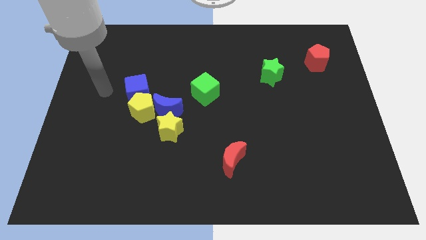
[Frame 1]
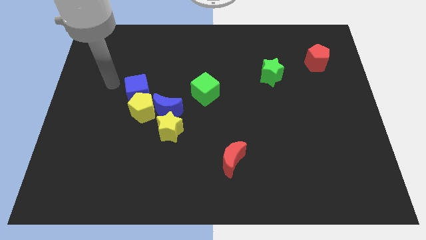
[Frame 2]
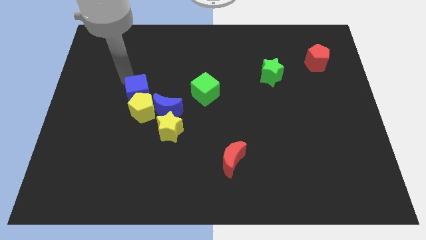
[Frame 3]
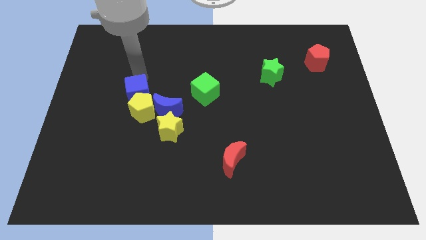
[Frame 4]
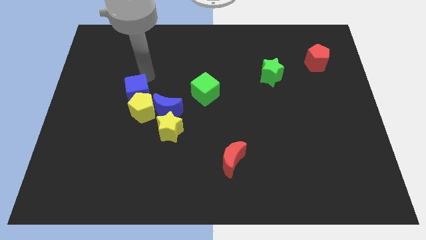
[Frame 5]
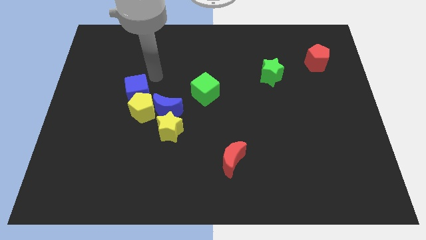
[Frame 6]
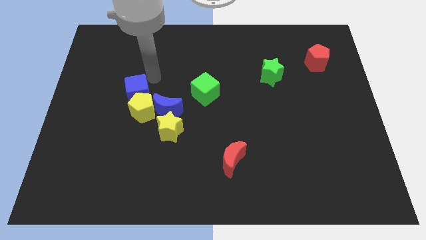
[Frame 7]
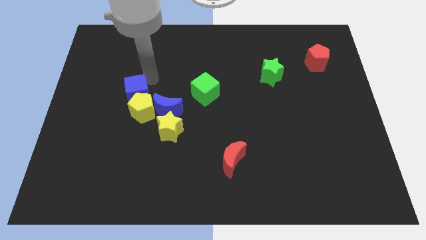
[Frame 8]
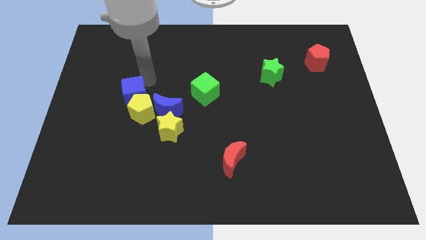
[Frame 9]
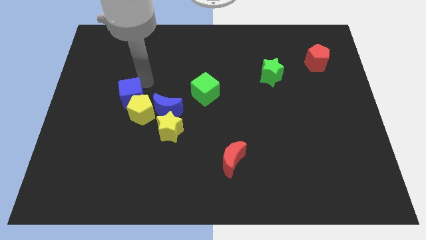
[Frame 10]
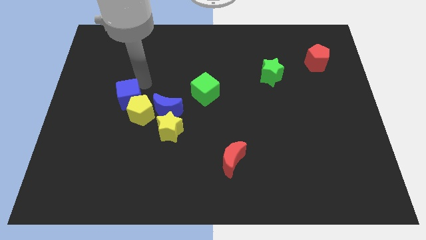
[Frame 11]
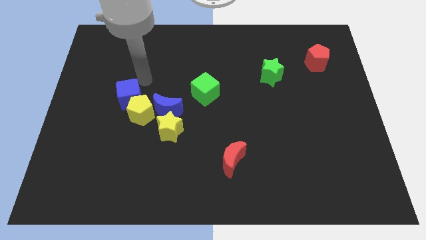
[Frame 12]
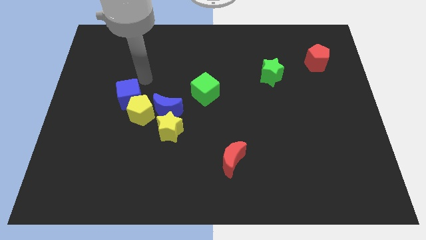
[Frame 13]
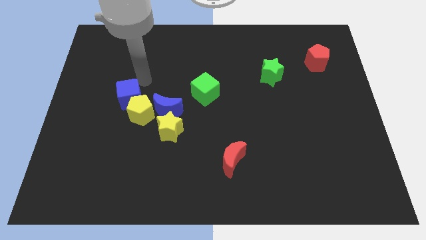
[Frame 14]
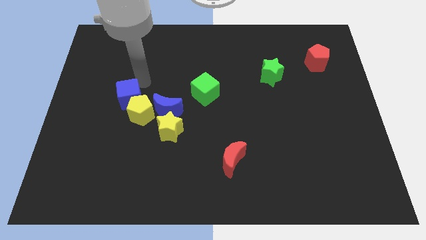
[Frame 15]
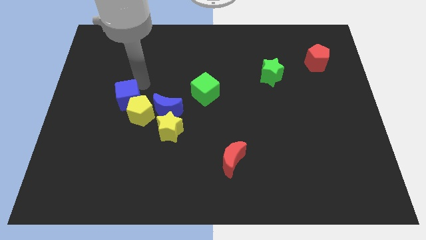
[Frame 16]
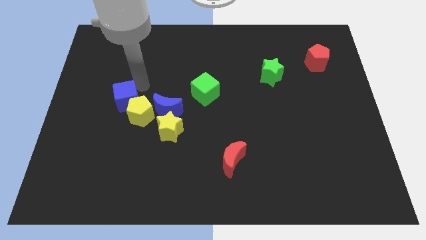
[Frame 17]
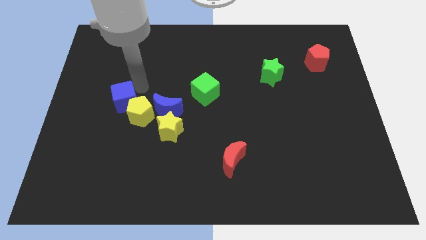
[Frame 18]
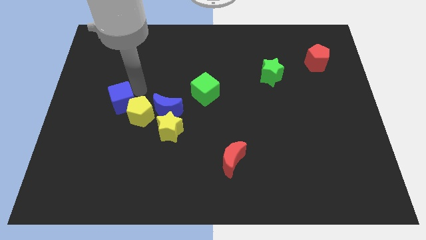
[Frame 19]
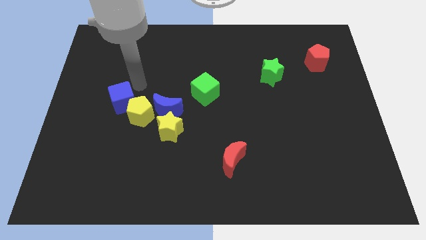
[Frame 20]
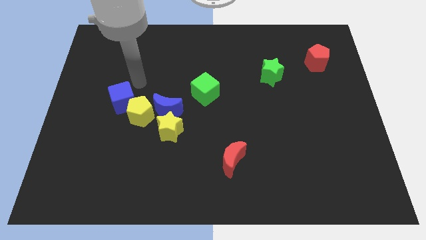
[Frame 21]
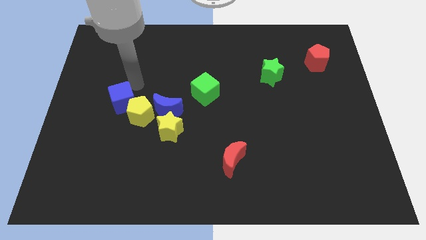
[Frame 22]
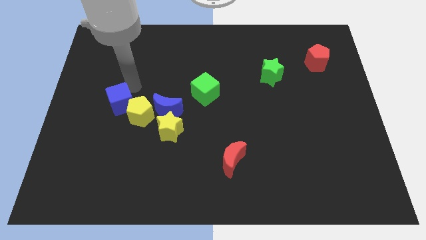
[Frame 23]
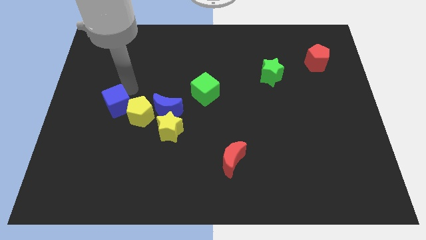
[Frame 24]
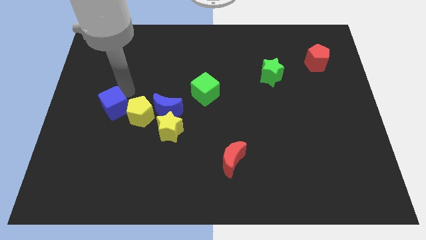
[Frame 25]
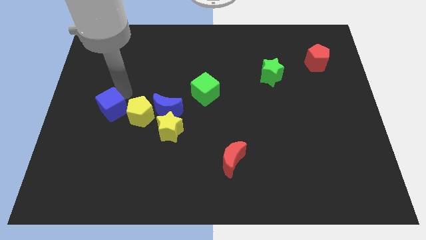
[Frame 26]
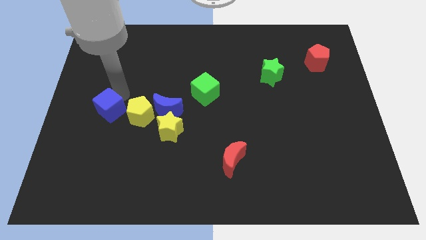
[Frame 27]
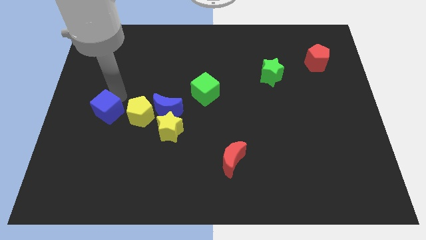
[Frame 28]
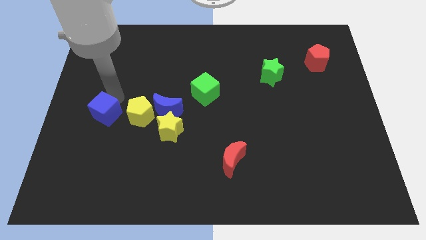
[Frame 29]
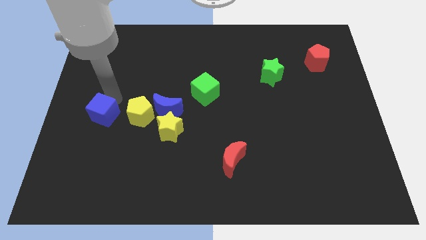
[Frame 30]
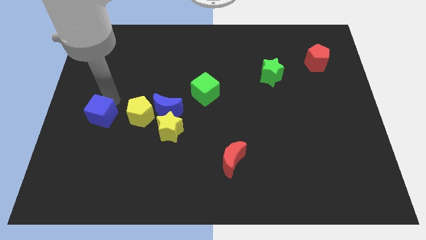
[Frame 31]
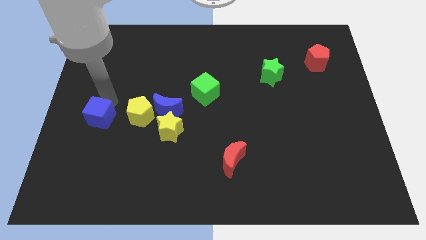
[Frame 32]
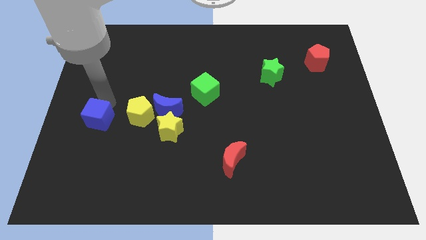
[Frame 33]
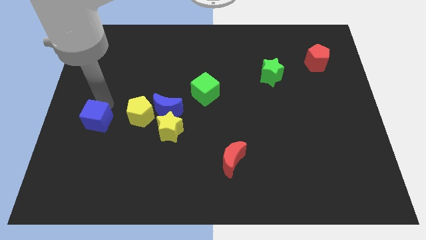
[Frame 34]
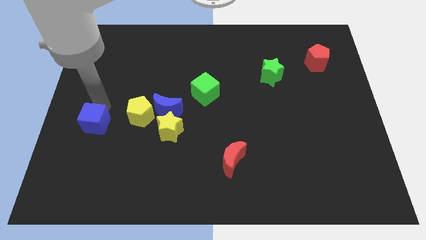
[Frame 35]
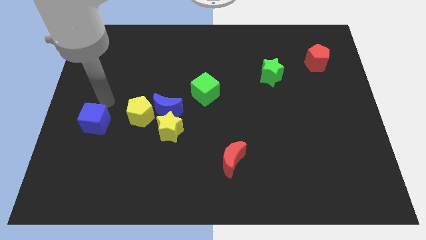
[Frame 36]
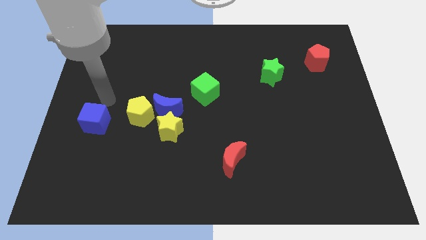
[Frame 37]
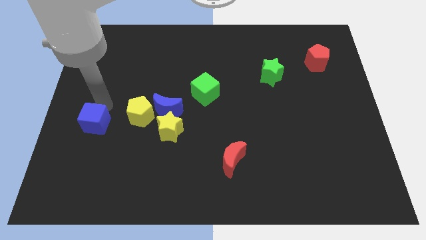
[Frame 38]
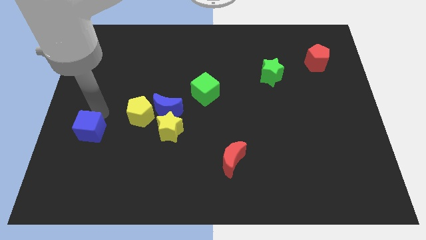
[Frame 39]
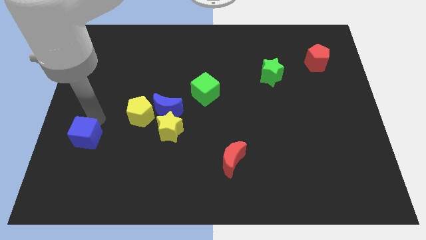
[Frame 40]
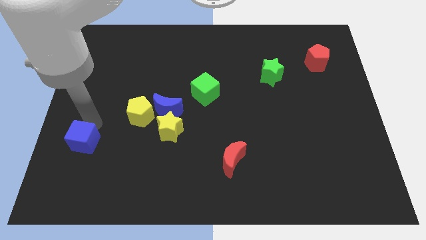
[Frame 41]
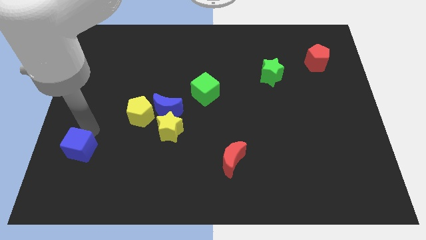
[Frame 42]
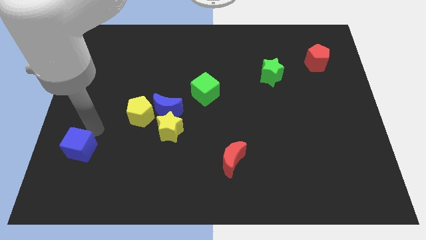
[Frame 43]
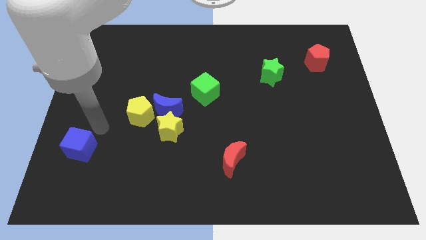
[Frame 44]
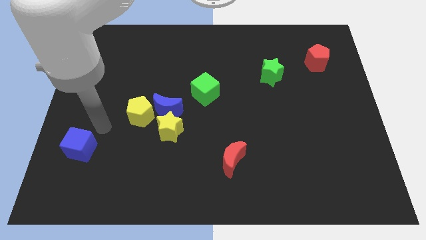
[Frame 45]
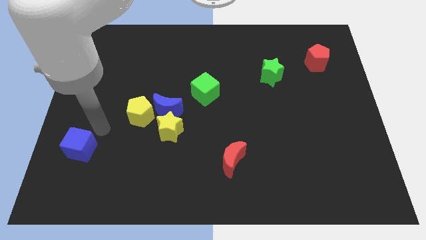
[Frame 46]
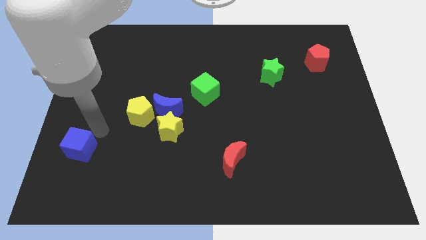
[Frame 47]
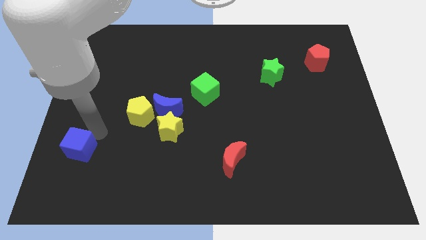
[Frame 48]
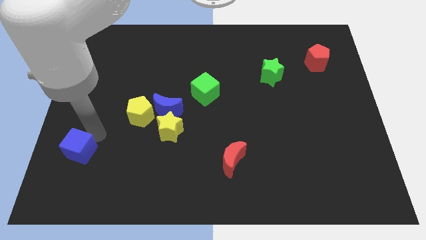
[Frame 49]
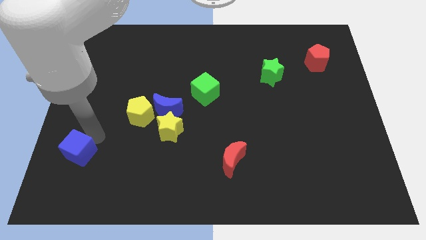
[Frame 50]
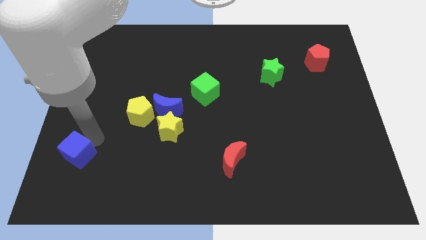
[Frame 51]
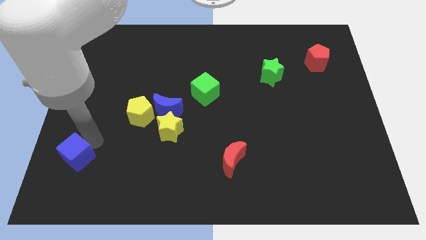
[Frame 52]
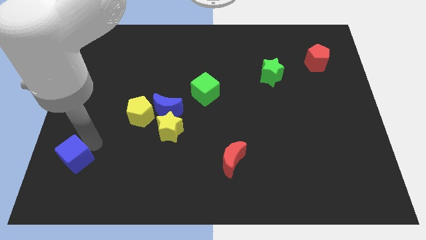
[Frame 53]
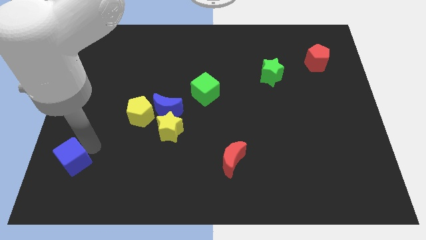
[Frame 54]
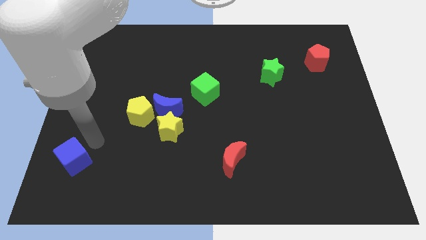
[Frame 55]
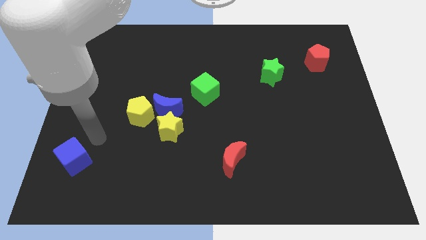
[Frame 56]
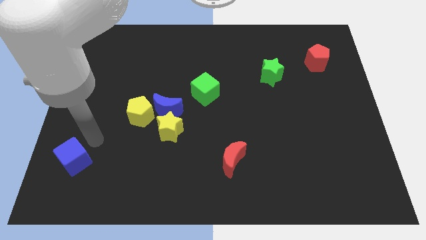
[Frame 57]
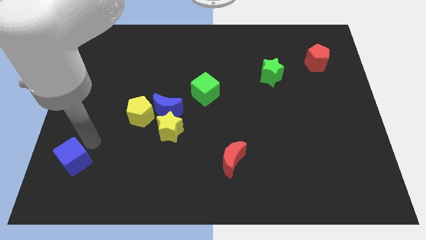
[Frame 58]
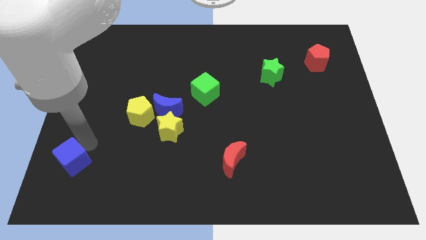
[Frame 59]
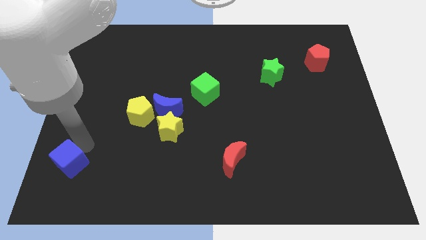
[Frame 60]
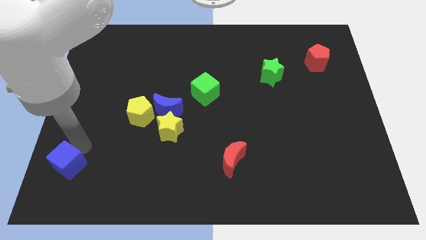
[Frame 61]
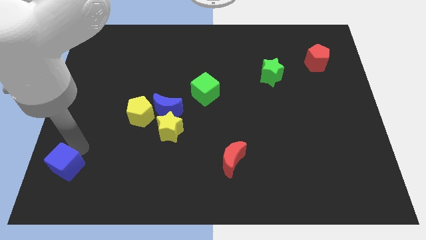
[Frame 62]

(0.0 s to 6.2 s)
move the blue cube to the lower left corner

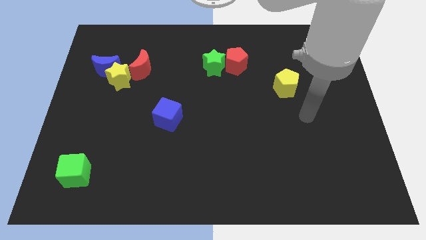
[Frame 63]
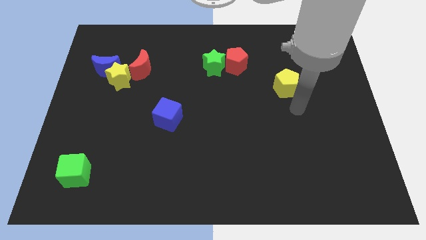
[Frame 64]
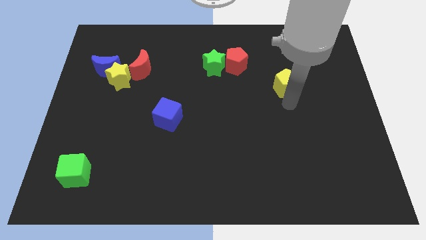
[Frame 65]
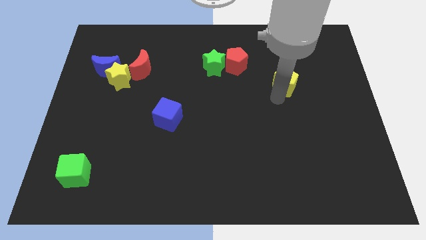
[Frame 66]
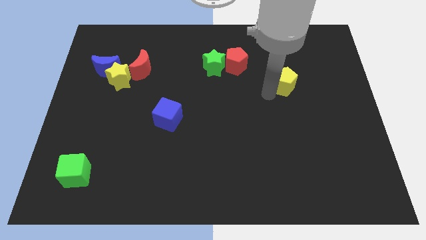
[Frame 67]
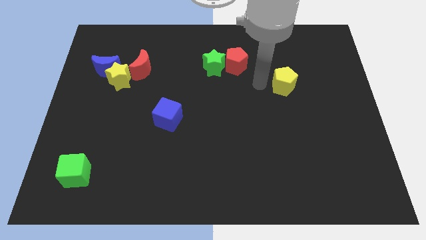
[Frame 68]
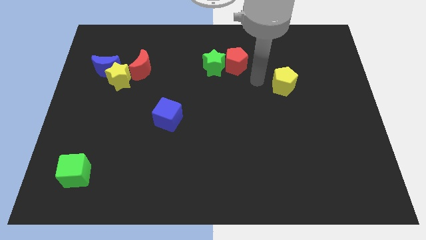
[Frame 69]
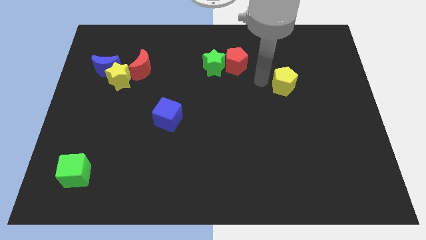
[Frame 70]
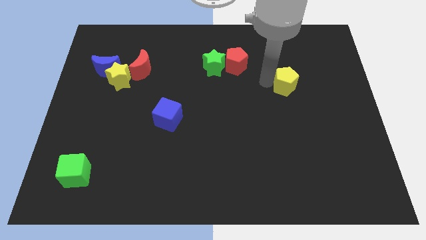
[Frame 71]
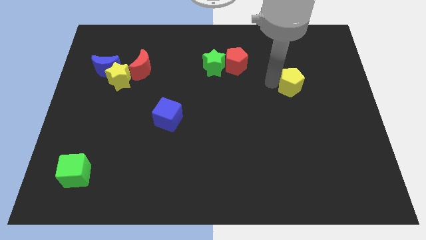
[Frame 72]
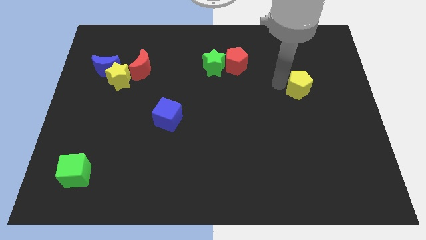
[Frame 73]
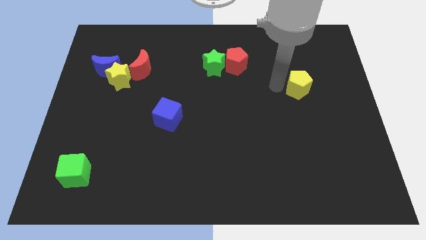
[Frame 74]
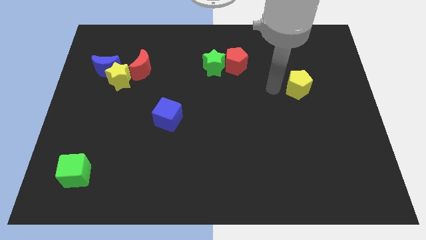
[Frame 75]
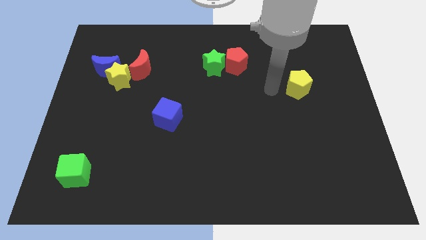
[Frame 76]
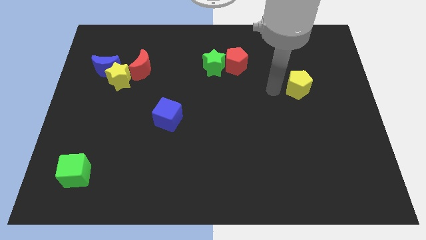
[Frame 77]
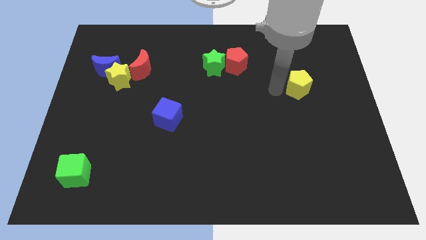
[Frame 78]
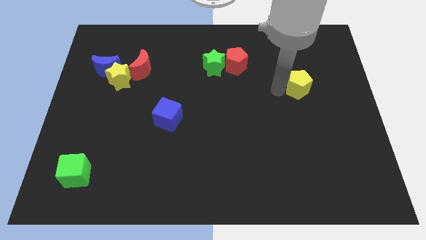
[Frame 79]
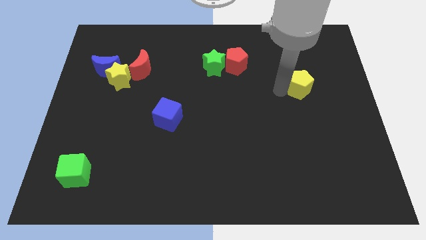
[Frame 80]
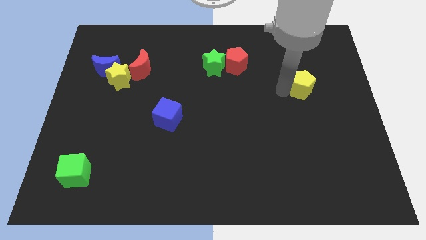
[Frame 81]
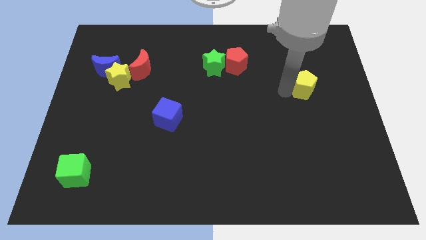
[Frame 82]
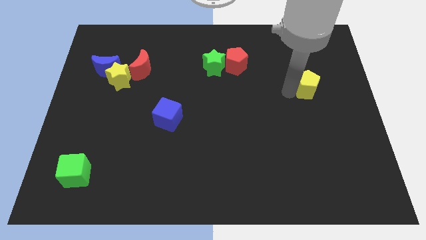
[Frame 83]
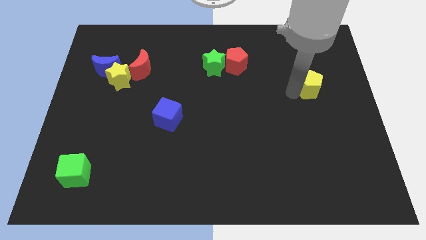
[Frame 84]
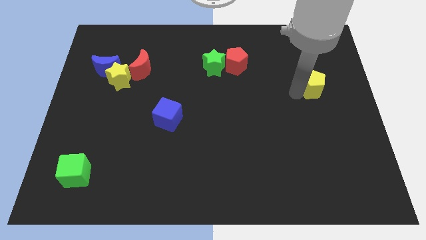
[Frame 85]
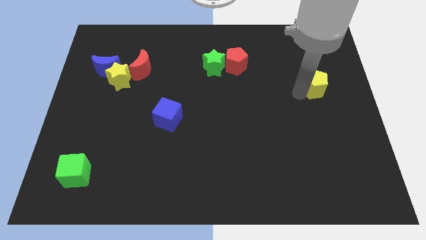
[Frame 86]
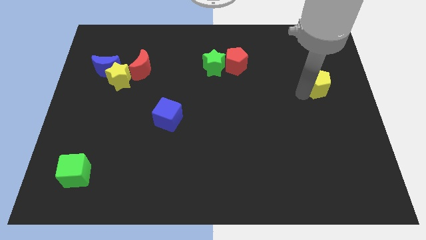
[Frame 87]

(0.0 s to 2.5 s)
push the yellow pentagon to the right side of the board
